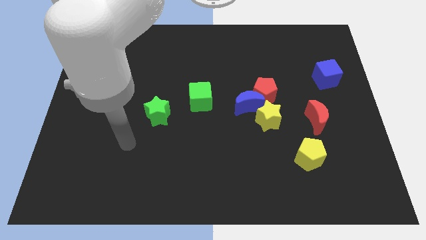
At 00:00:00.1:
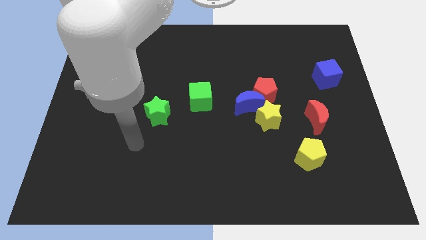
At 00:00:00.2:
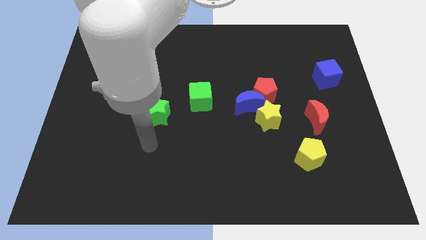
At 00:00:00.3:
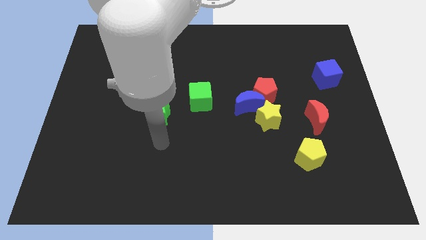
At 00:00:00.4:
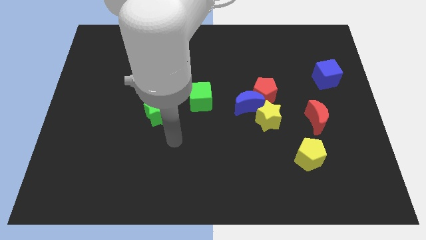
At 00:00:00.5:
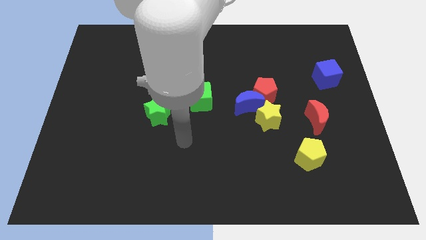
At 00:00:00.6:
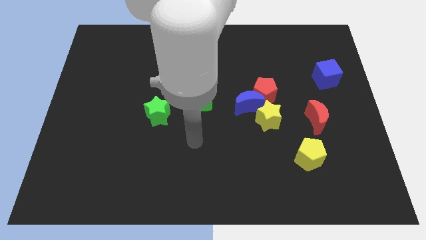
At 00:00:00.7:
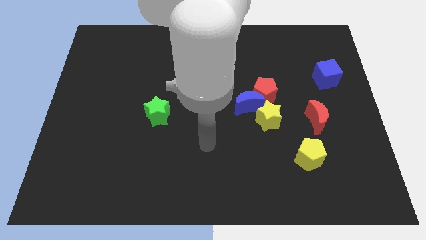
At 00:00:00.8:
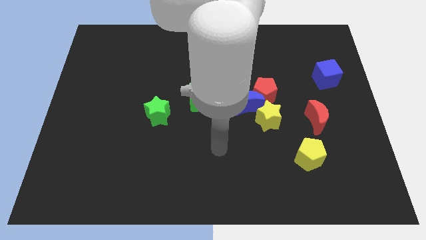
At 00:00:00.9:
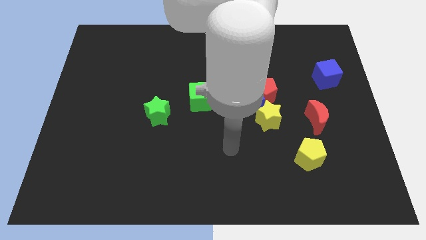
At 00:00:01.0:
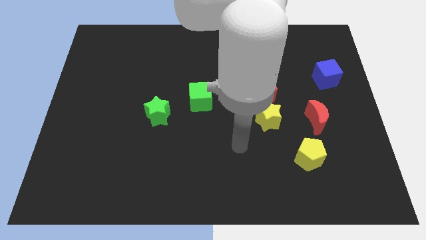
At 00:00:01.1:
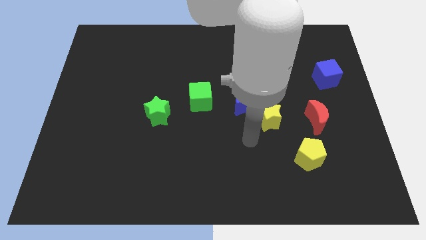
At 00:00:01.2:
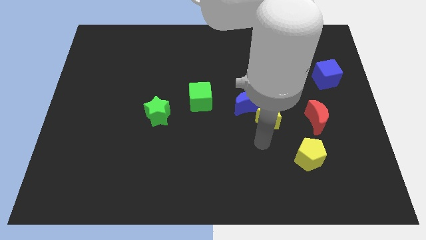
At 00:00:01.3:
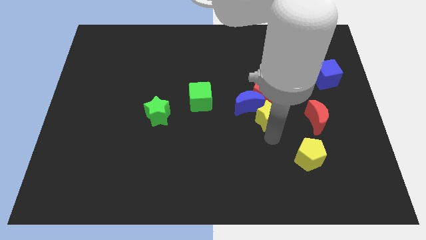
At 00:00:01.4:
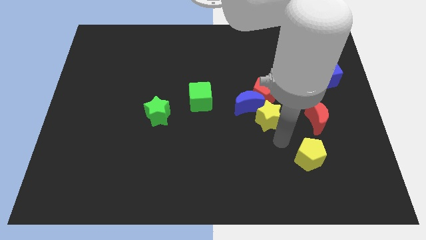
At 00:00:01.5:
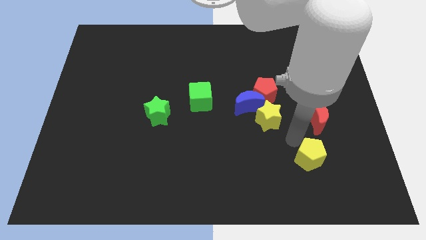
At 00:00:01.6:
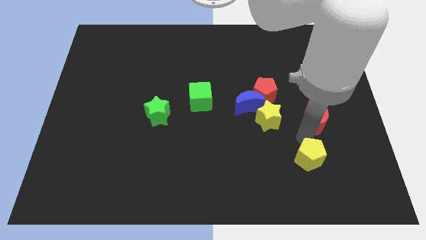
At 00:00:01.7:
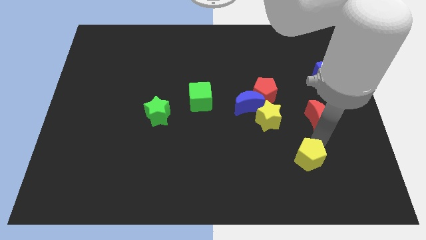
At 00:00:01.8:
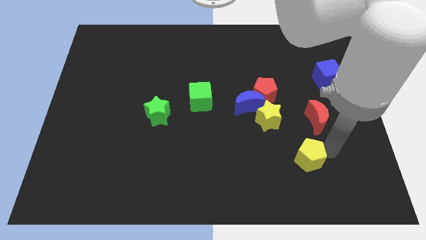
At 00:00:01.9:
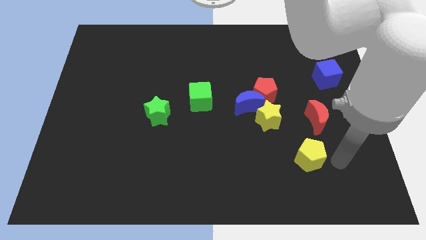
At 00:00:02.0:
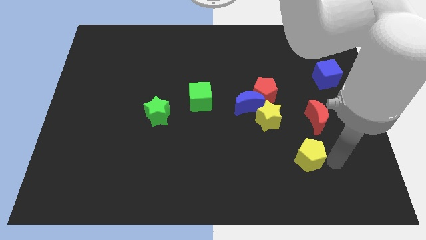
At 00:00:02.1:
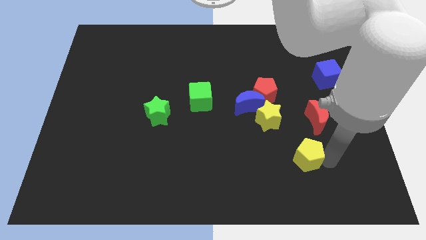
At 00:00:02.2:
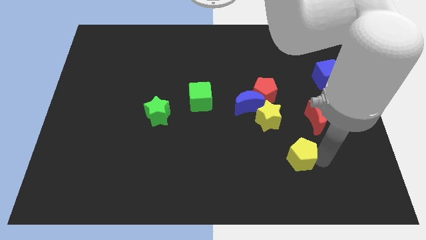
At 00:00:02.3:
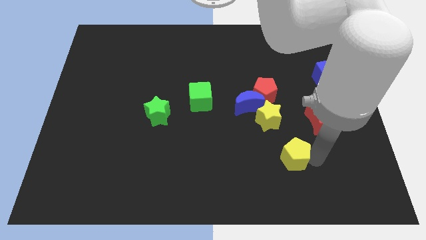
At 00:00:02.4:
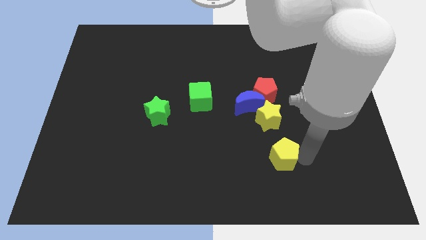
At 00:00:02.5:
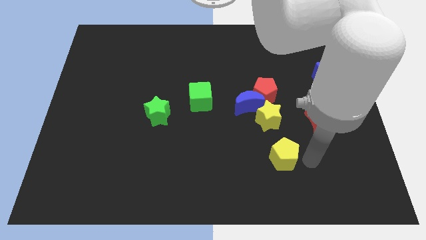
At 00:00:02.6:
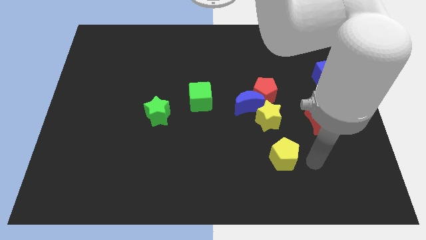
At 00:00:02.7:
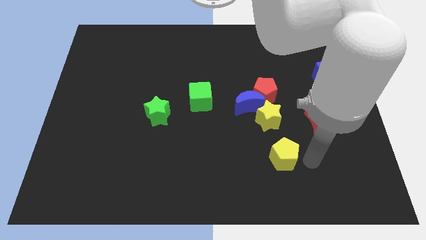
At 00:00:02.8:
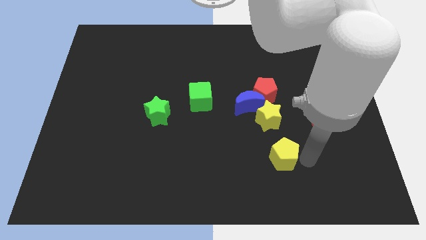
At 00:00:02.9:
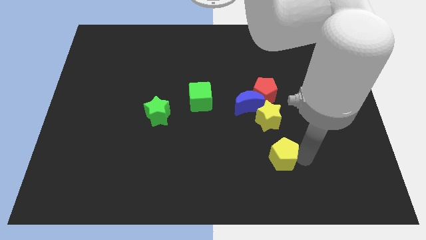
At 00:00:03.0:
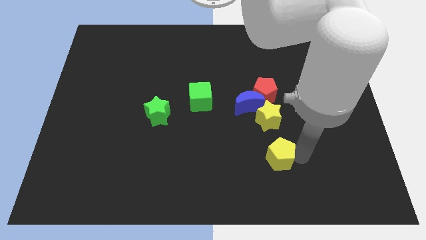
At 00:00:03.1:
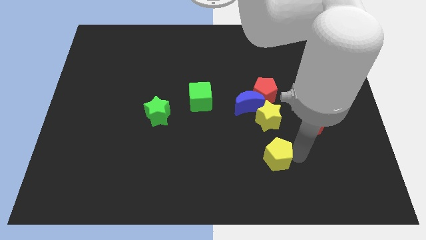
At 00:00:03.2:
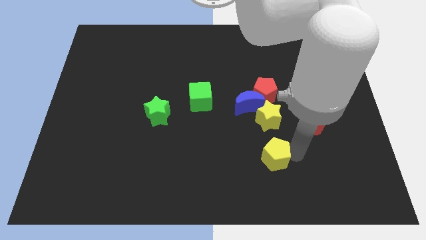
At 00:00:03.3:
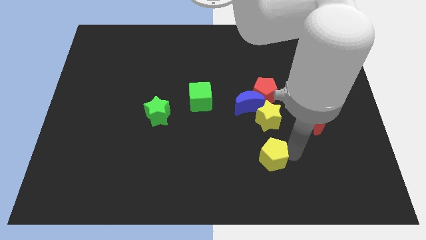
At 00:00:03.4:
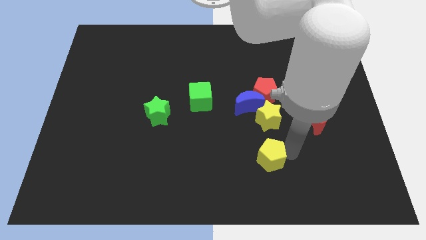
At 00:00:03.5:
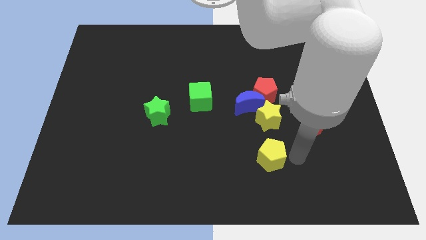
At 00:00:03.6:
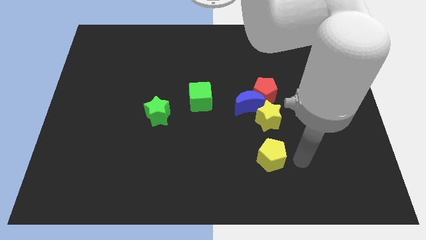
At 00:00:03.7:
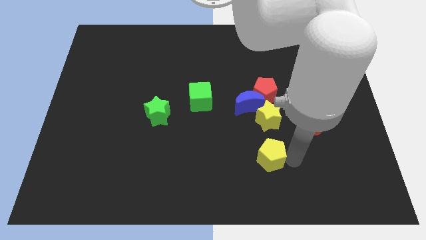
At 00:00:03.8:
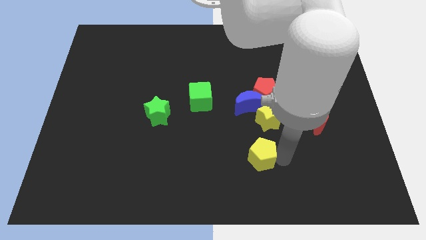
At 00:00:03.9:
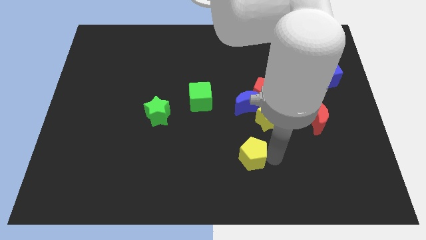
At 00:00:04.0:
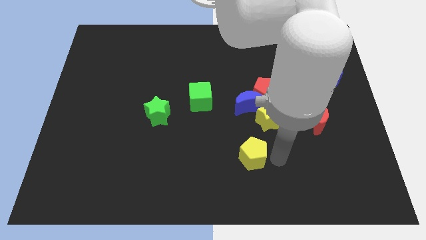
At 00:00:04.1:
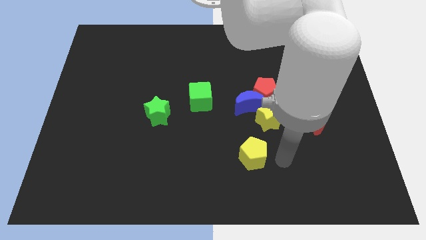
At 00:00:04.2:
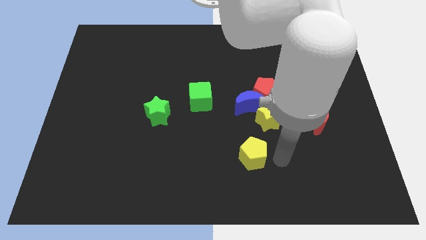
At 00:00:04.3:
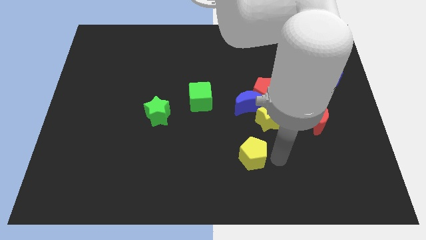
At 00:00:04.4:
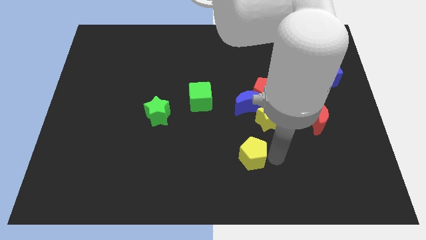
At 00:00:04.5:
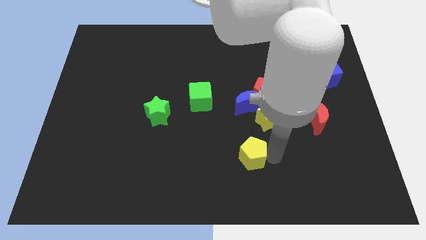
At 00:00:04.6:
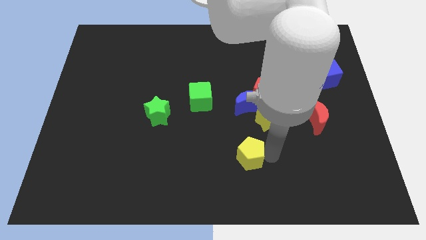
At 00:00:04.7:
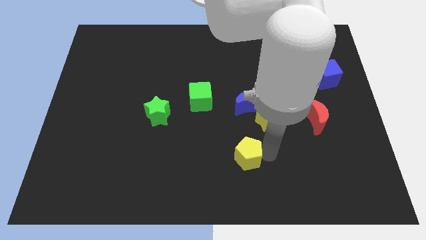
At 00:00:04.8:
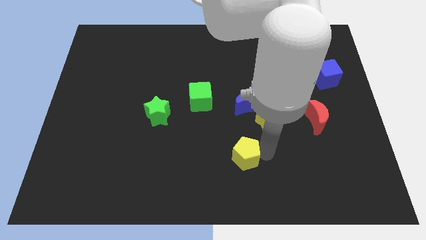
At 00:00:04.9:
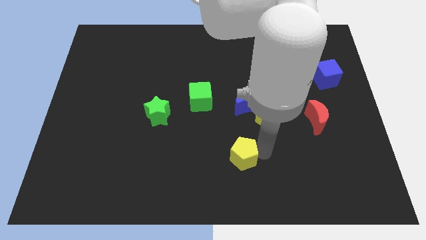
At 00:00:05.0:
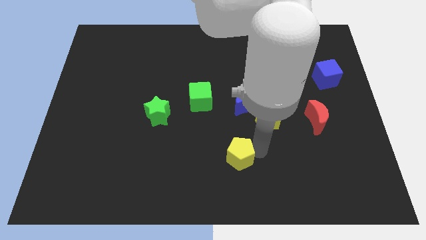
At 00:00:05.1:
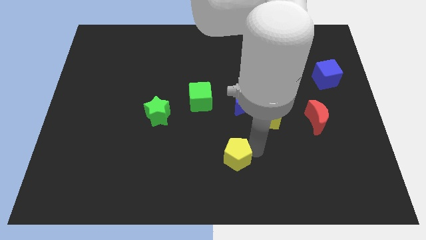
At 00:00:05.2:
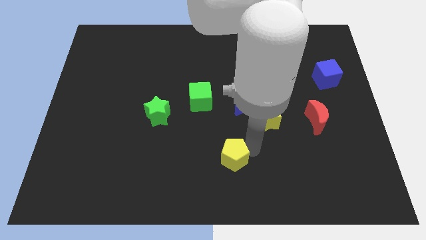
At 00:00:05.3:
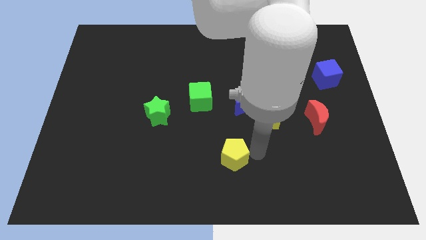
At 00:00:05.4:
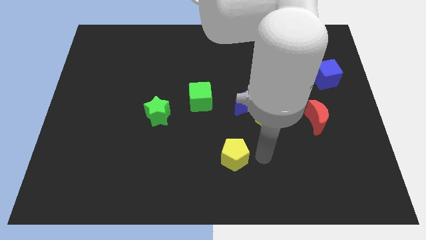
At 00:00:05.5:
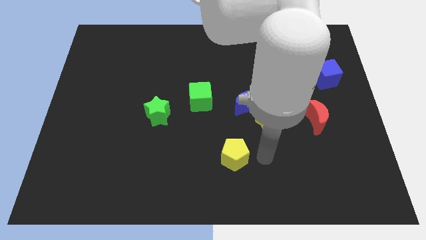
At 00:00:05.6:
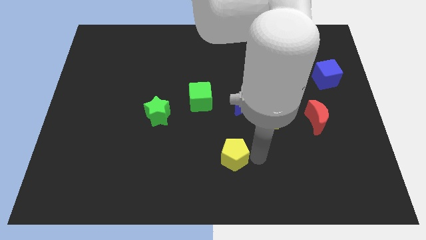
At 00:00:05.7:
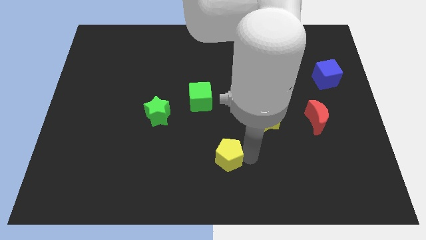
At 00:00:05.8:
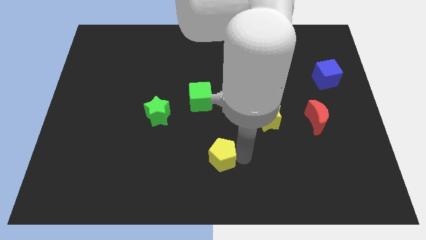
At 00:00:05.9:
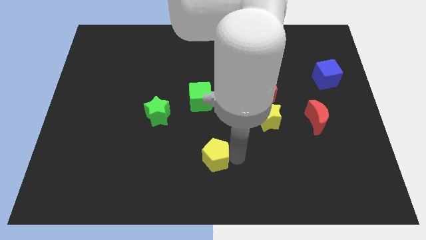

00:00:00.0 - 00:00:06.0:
slide the yellow pentagon left

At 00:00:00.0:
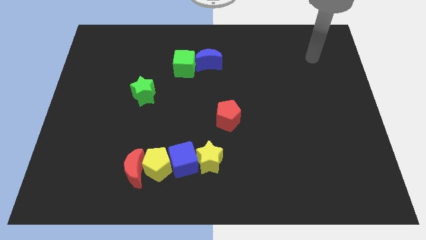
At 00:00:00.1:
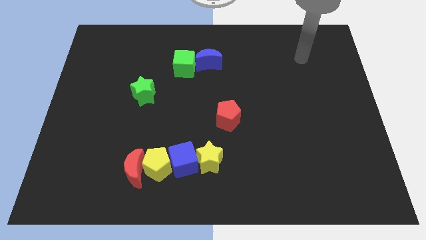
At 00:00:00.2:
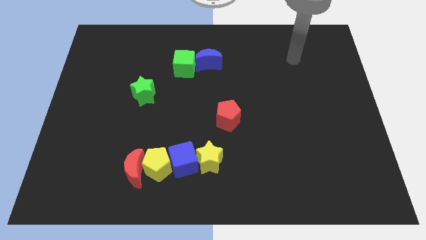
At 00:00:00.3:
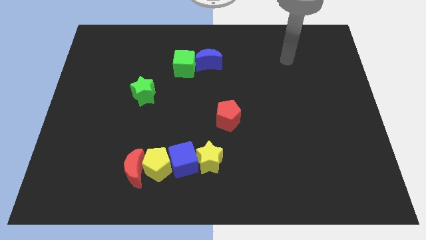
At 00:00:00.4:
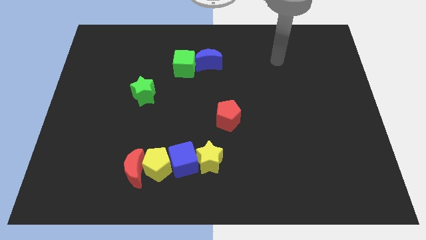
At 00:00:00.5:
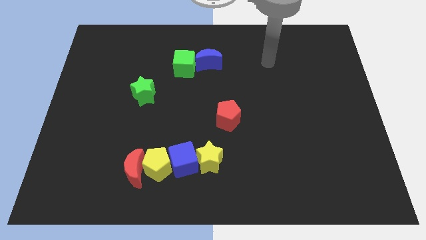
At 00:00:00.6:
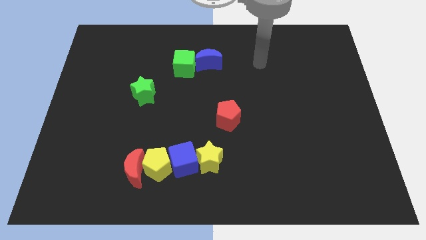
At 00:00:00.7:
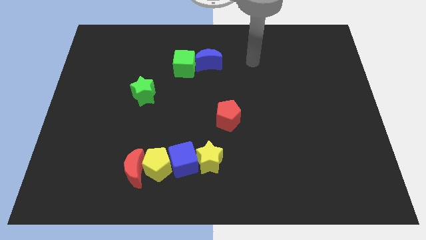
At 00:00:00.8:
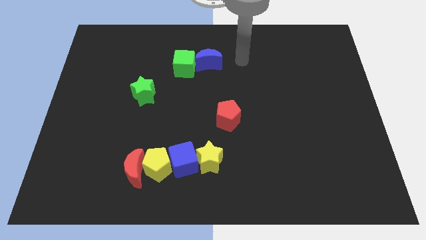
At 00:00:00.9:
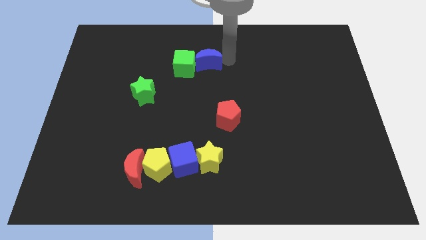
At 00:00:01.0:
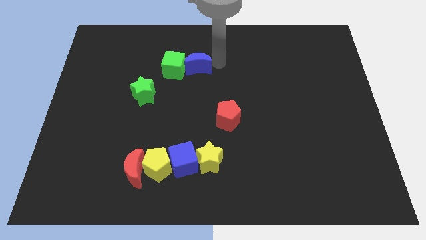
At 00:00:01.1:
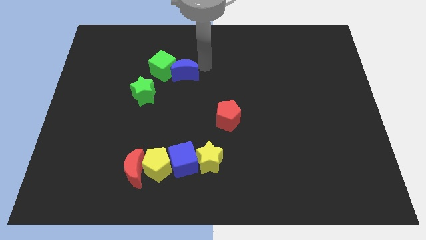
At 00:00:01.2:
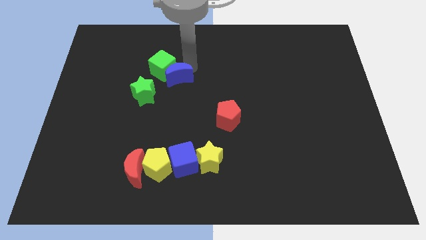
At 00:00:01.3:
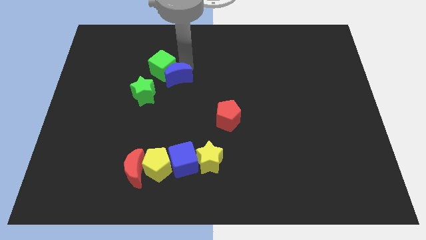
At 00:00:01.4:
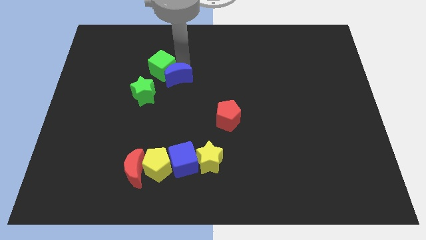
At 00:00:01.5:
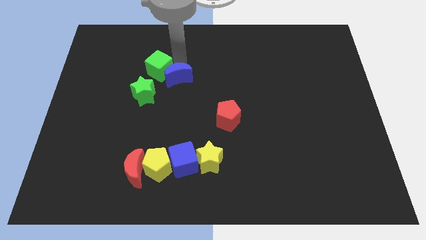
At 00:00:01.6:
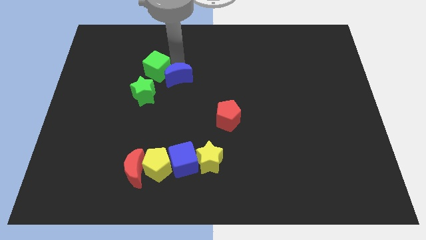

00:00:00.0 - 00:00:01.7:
move the green cube slightly to the left

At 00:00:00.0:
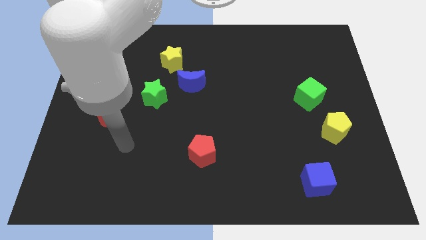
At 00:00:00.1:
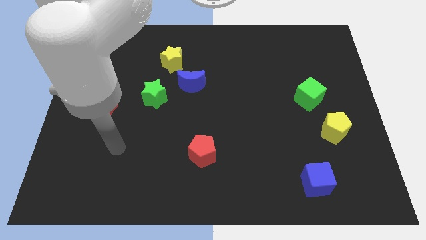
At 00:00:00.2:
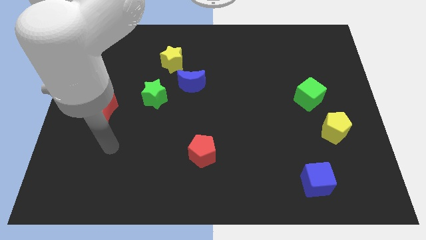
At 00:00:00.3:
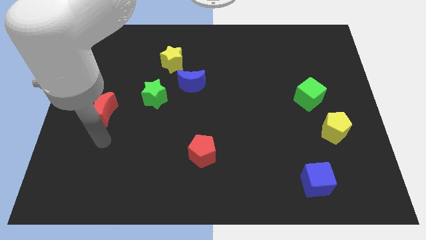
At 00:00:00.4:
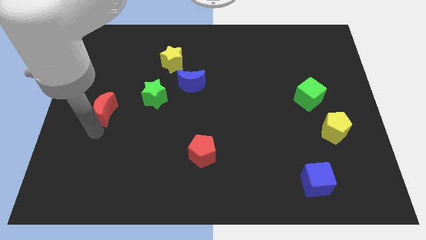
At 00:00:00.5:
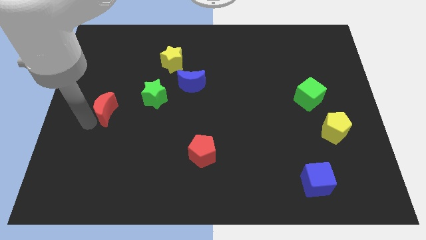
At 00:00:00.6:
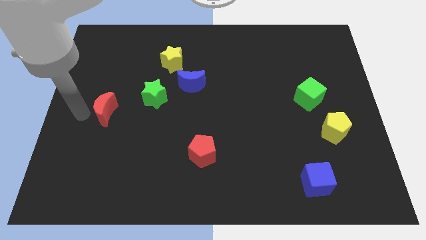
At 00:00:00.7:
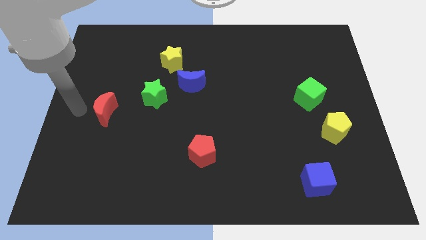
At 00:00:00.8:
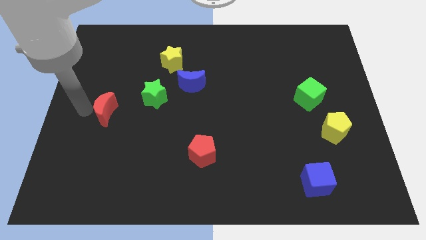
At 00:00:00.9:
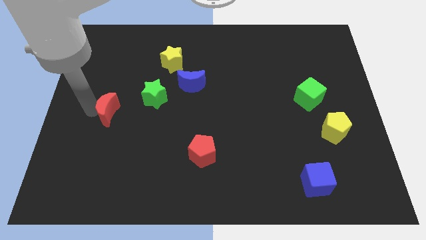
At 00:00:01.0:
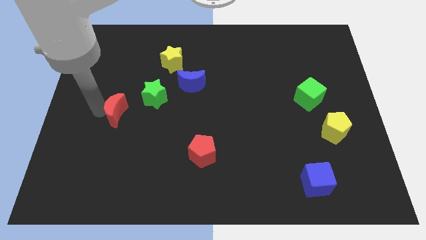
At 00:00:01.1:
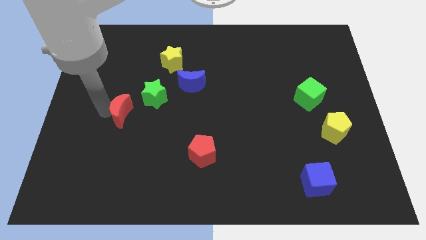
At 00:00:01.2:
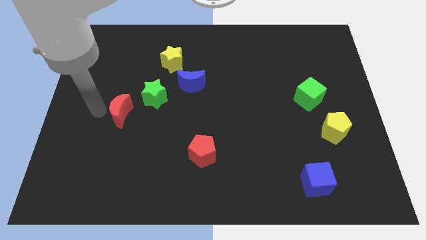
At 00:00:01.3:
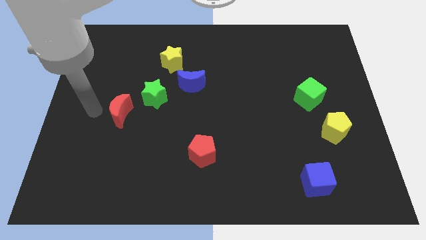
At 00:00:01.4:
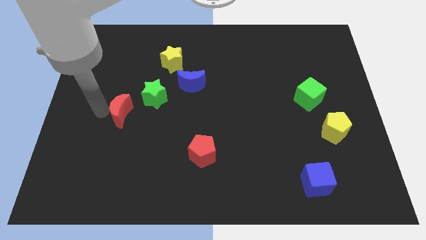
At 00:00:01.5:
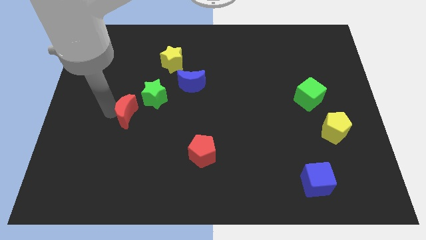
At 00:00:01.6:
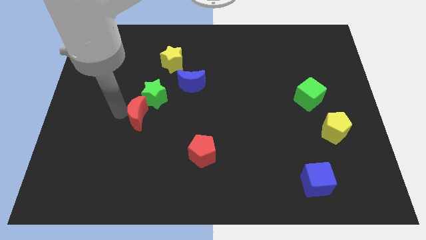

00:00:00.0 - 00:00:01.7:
push the red moon a little right
